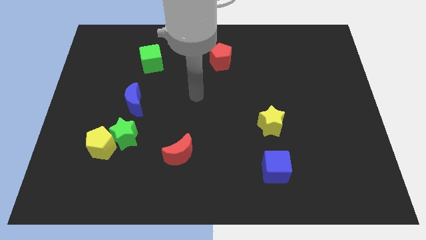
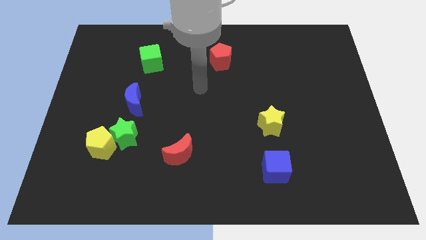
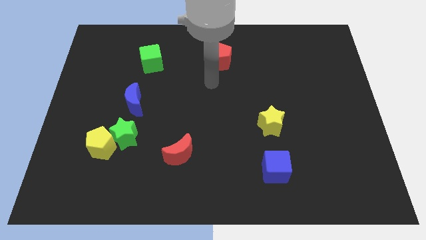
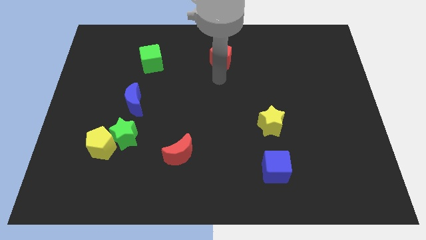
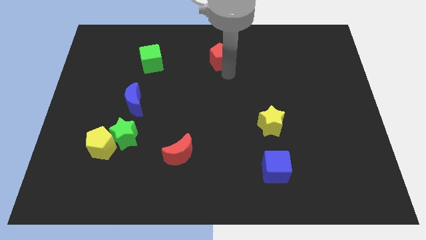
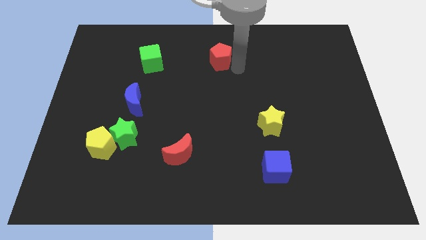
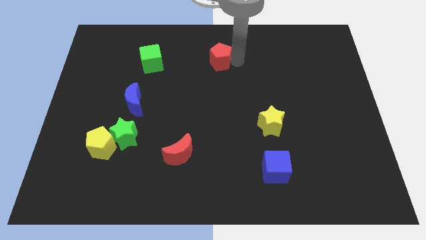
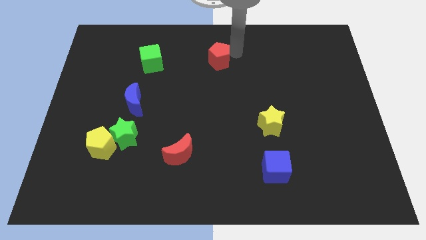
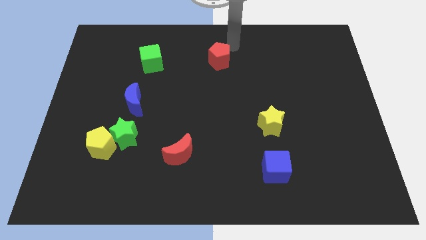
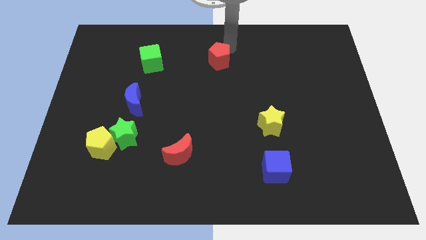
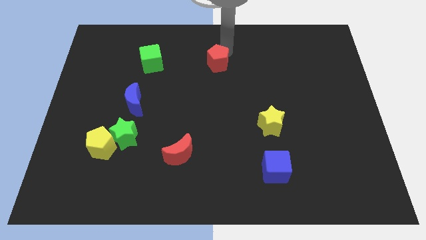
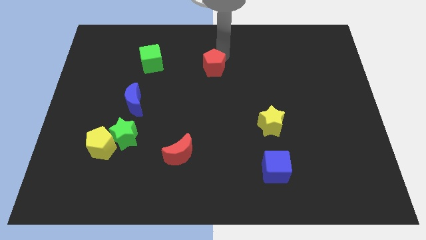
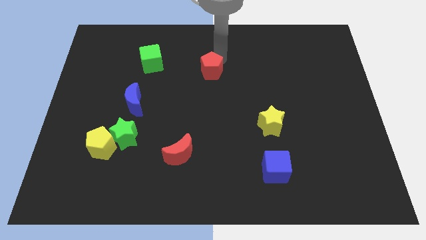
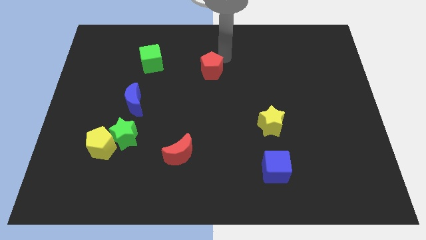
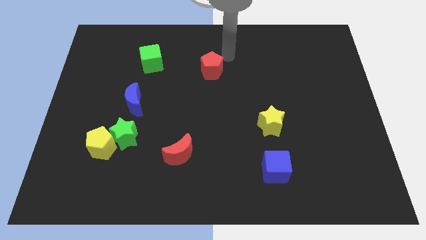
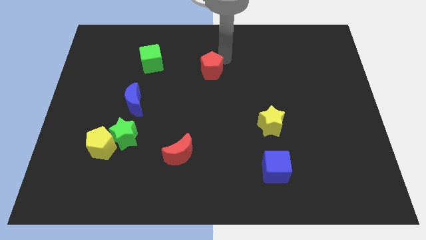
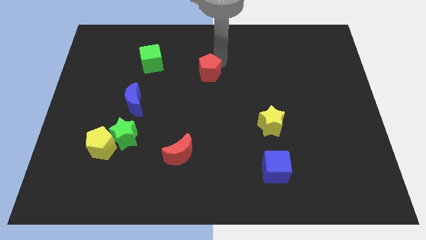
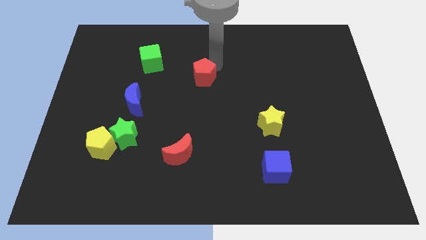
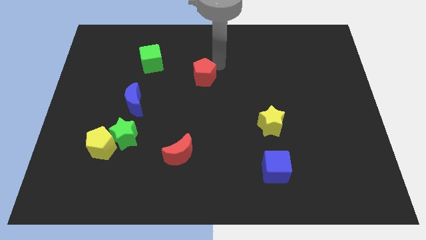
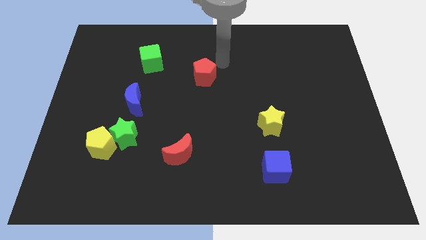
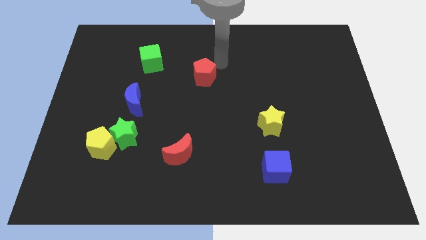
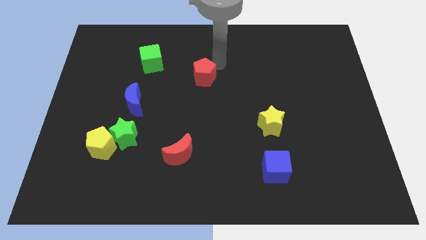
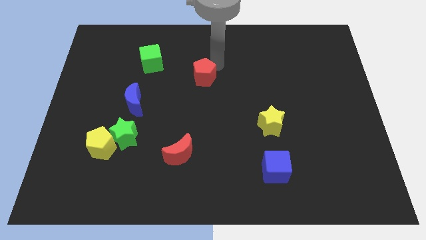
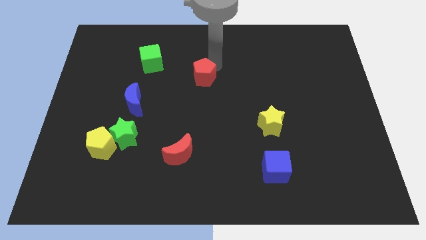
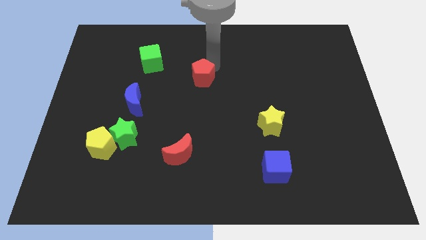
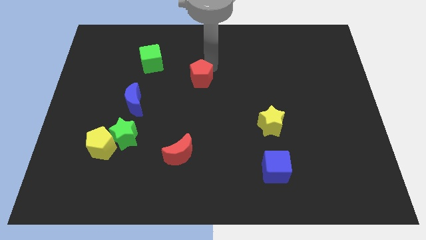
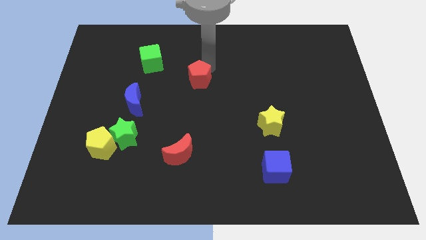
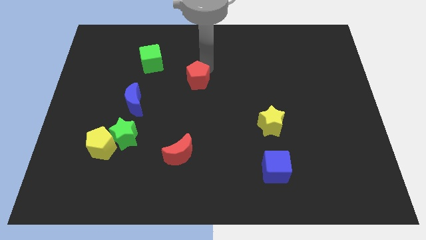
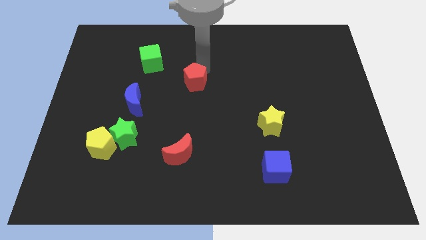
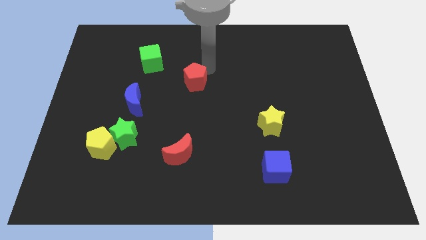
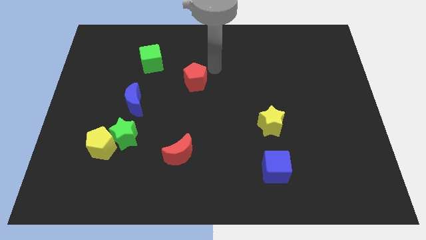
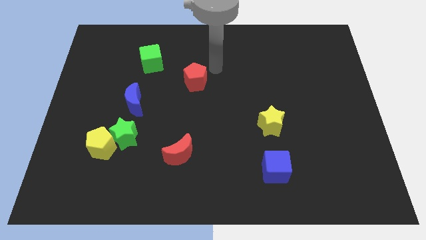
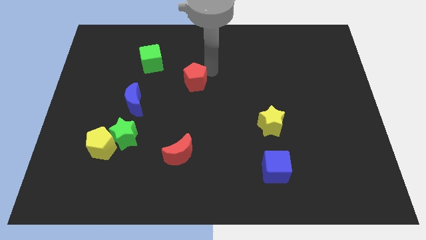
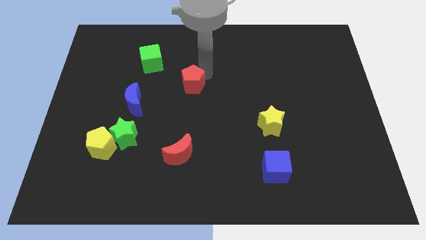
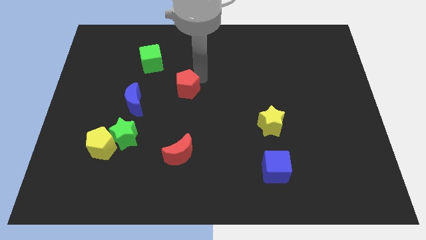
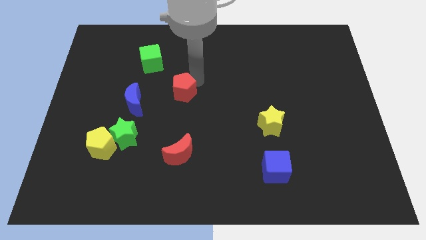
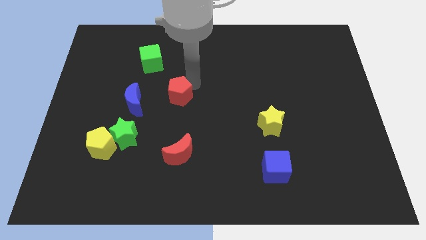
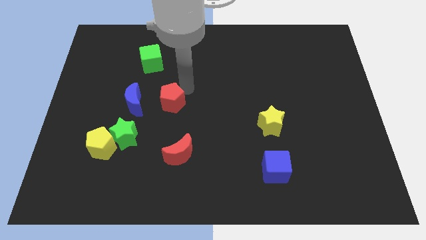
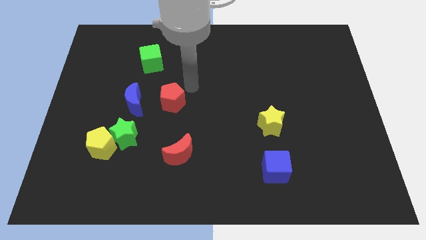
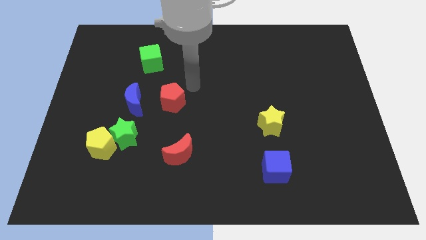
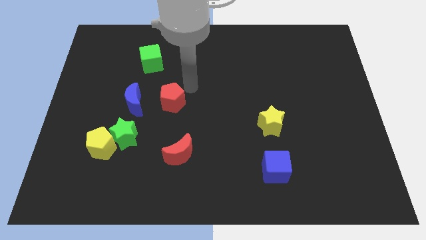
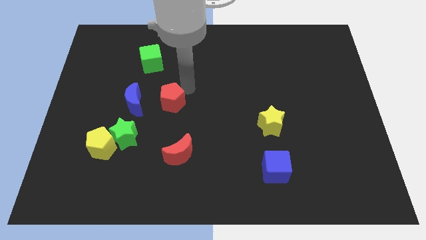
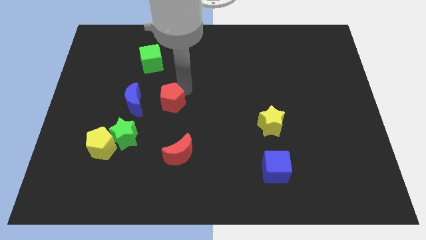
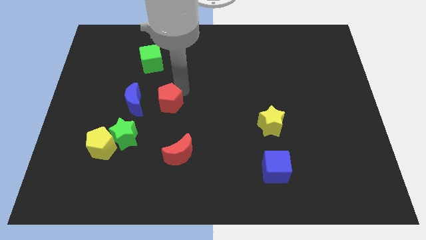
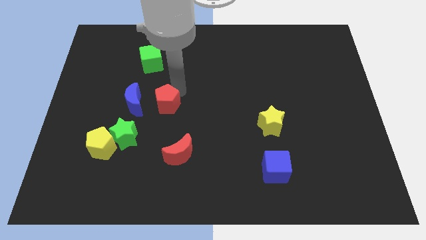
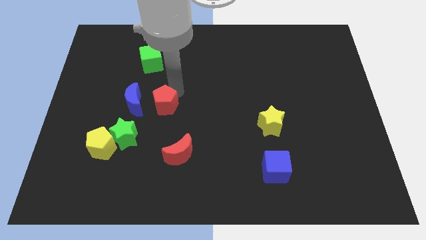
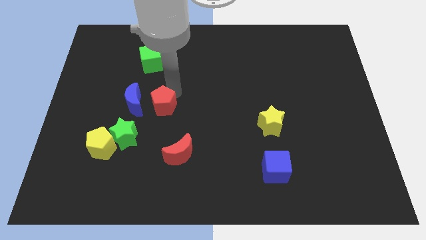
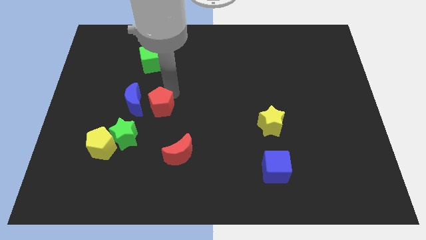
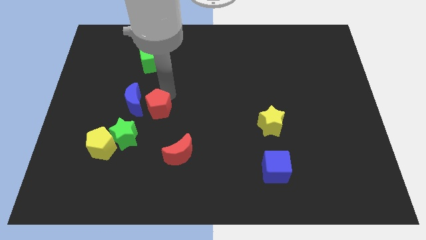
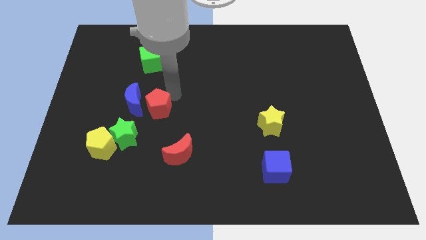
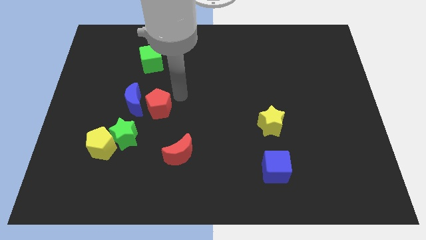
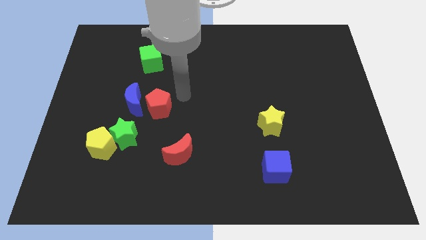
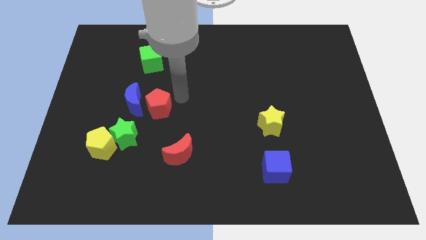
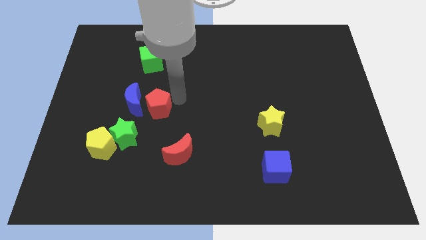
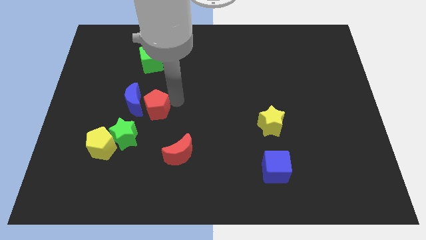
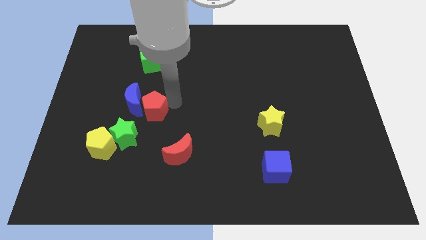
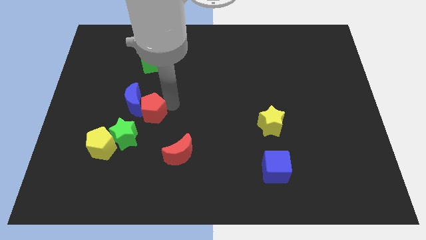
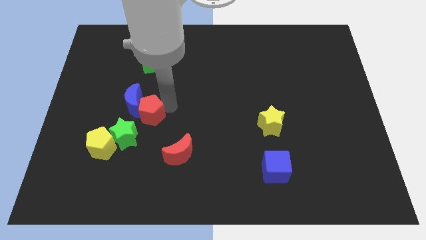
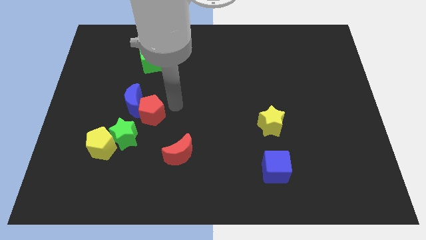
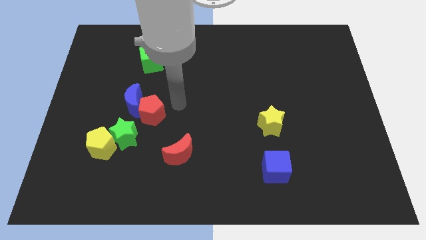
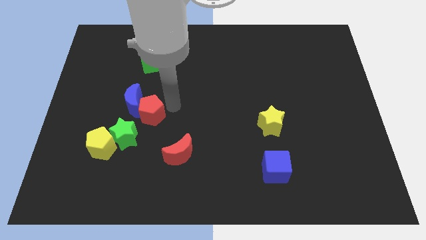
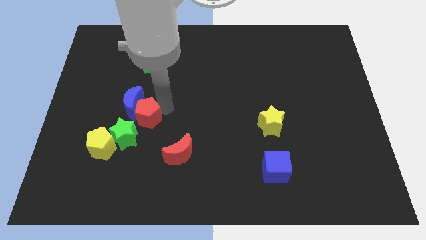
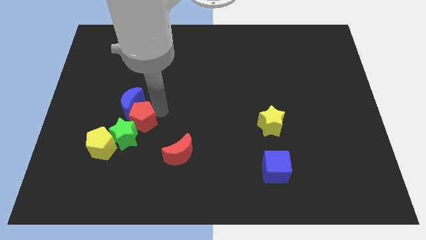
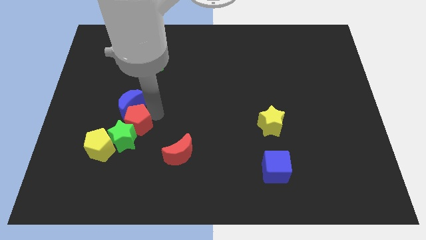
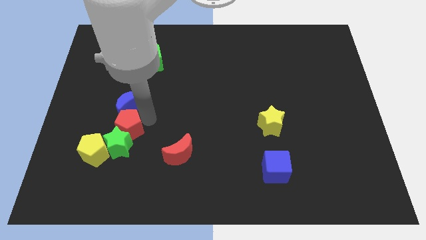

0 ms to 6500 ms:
put the red pentagon to the bottom left side of the blue moon
